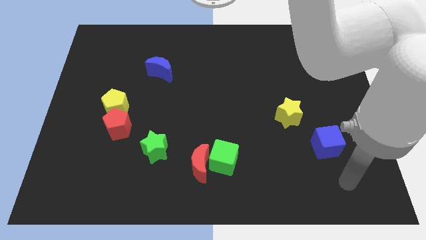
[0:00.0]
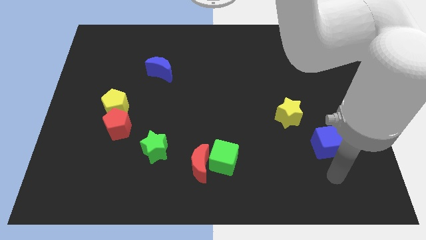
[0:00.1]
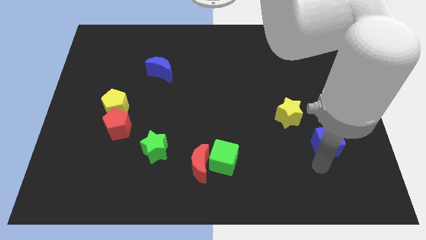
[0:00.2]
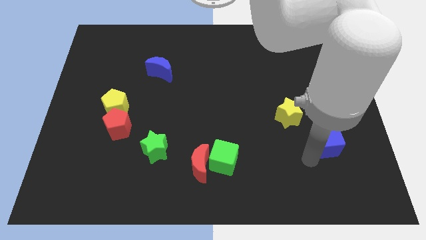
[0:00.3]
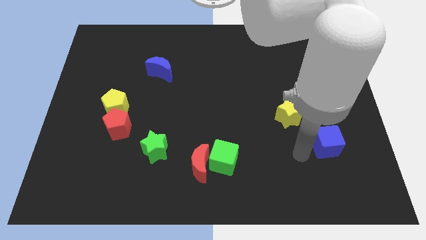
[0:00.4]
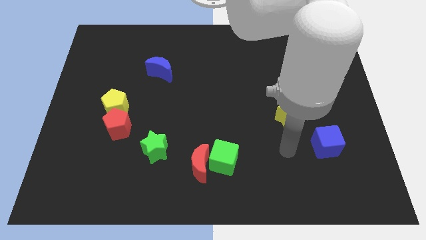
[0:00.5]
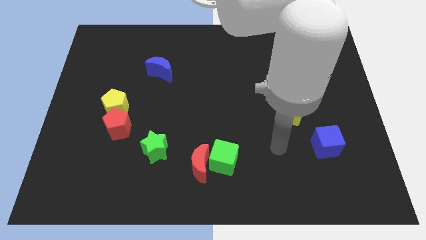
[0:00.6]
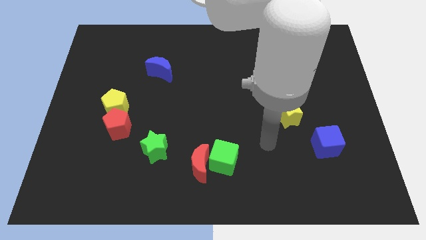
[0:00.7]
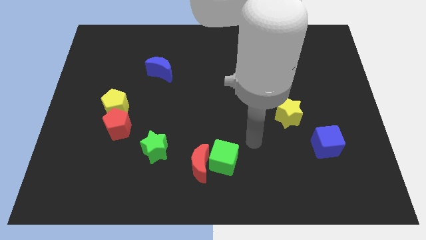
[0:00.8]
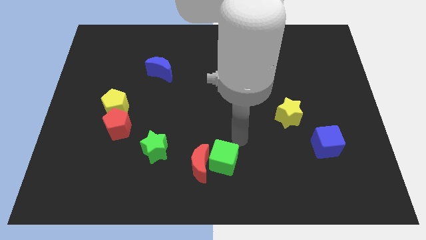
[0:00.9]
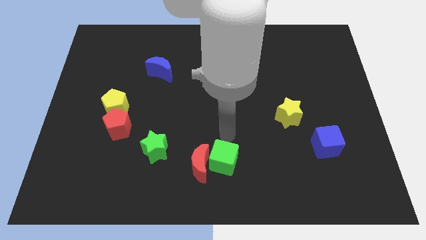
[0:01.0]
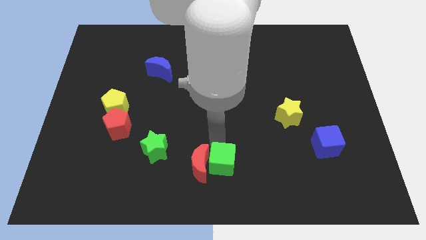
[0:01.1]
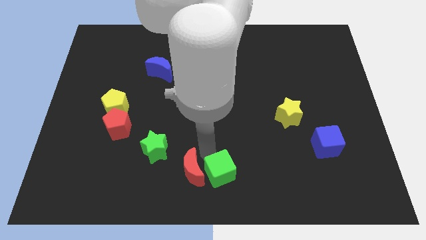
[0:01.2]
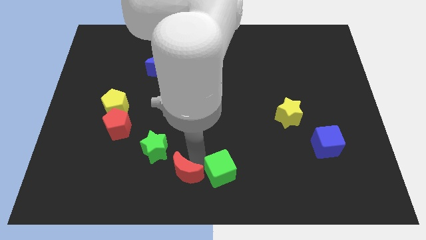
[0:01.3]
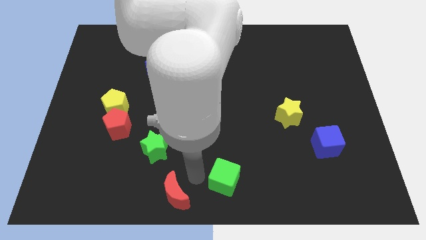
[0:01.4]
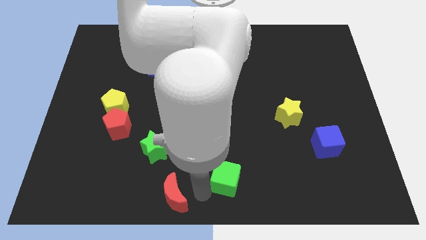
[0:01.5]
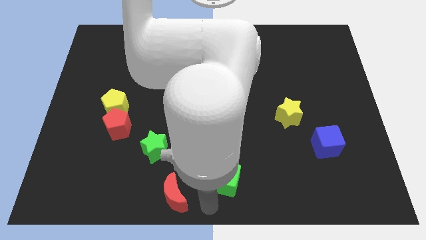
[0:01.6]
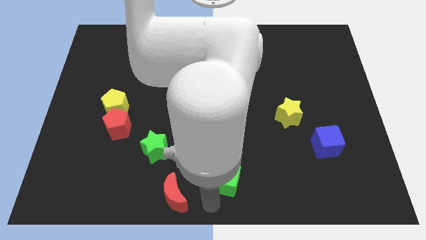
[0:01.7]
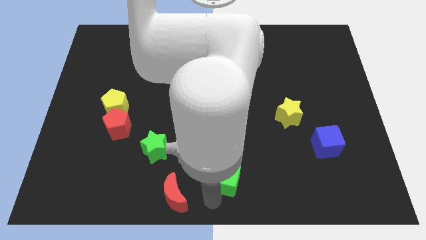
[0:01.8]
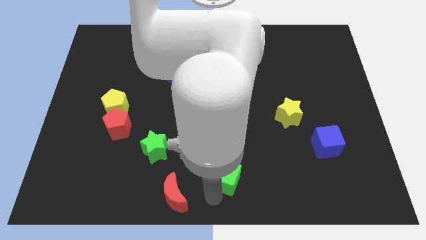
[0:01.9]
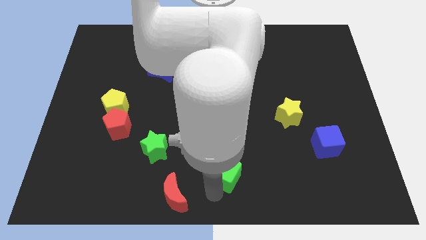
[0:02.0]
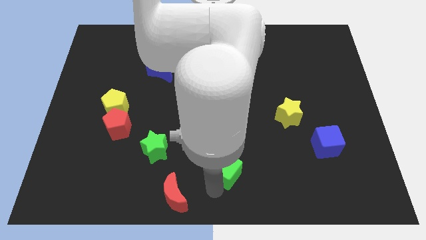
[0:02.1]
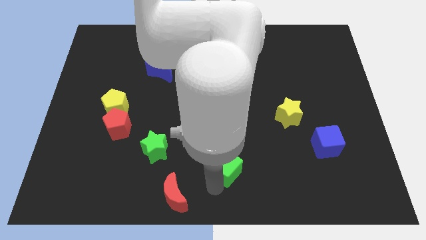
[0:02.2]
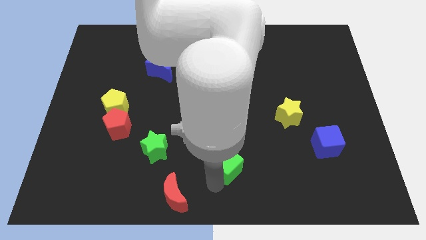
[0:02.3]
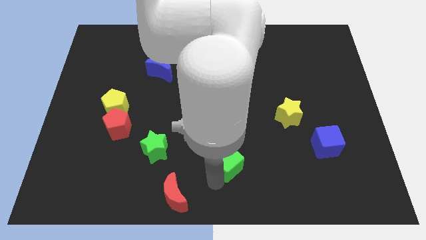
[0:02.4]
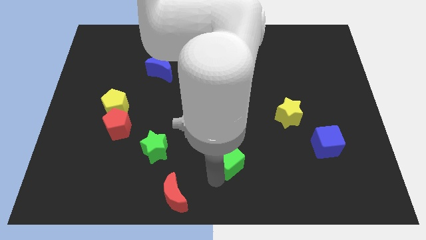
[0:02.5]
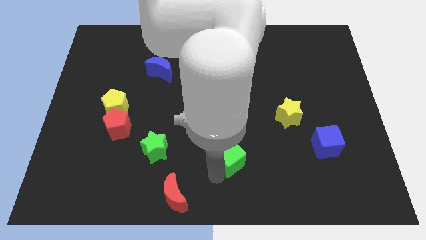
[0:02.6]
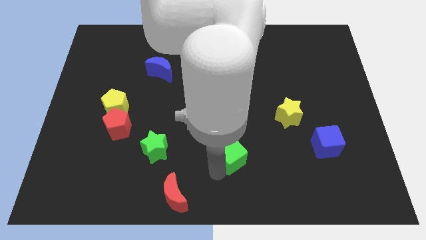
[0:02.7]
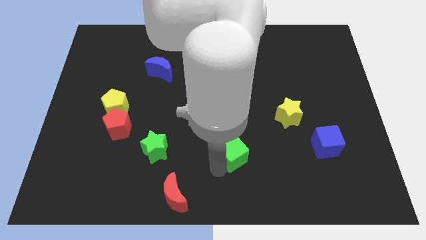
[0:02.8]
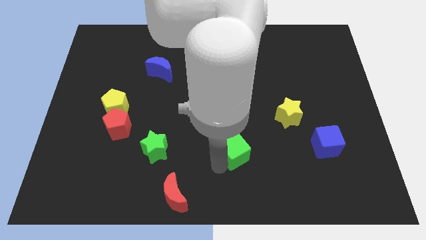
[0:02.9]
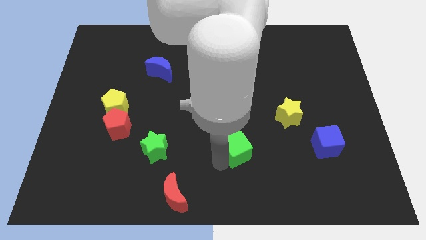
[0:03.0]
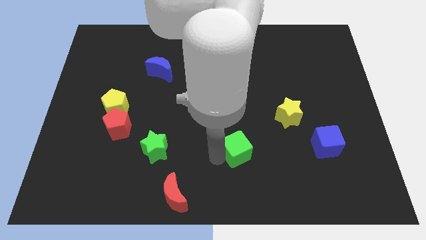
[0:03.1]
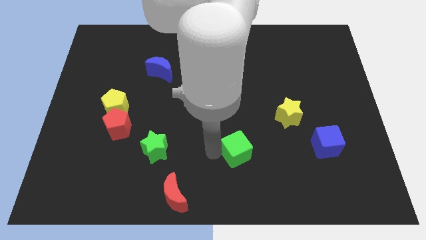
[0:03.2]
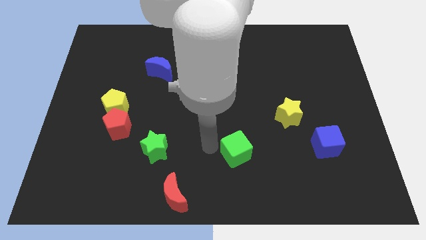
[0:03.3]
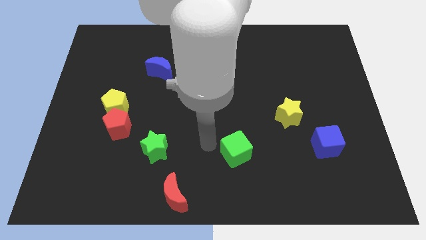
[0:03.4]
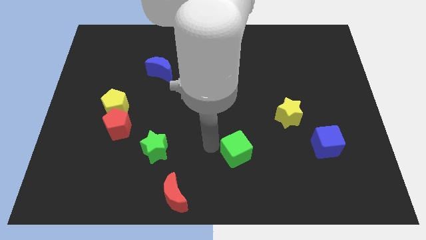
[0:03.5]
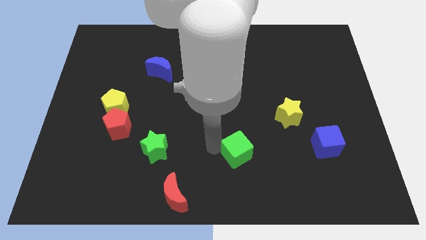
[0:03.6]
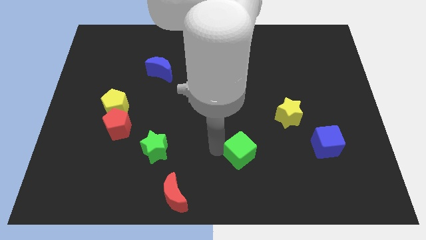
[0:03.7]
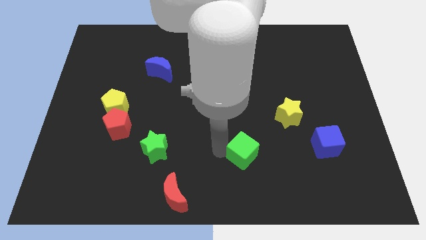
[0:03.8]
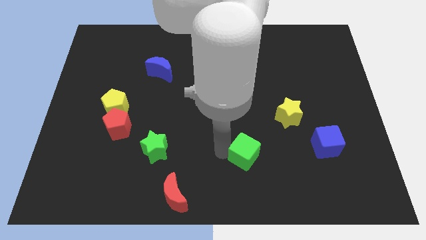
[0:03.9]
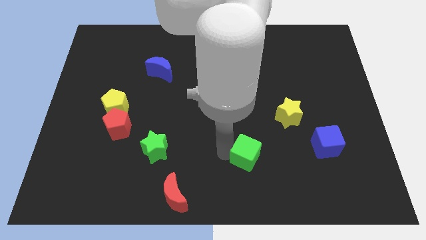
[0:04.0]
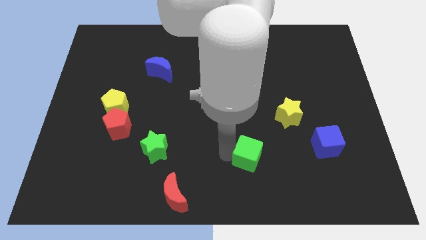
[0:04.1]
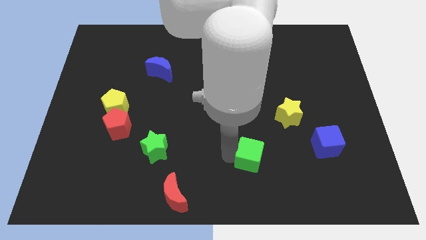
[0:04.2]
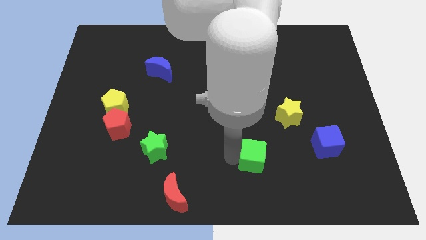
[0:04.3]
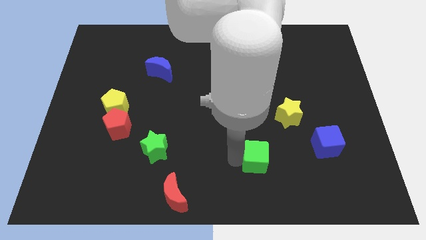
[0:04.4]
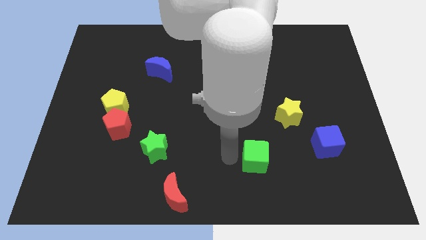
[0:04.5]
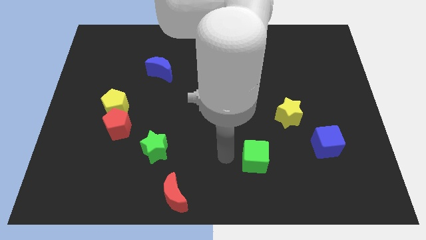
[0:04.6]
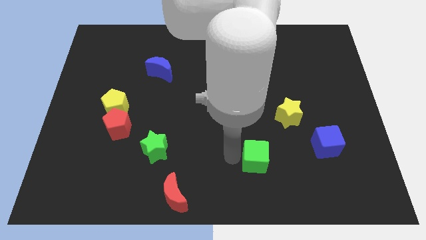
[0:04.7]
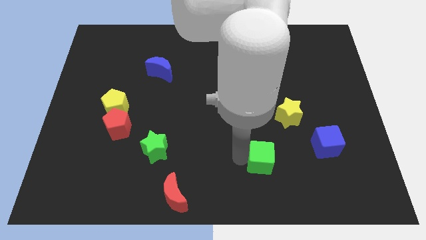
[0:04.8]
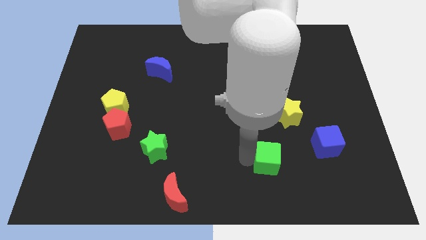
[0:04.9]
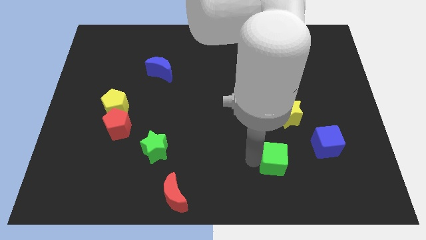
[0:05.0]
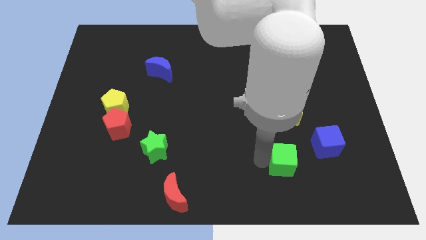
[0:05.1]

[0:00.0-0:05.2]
move the green cube diagonally down and to the left of the blue cube

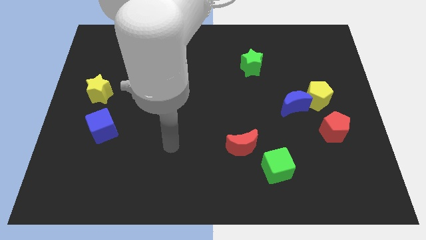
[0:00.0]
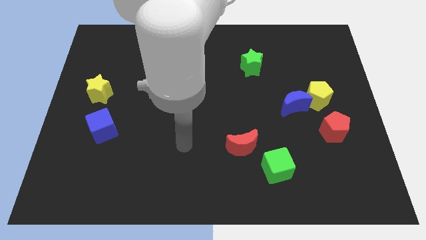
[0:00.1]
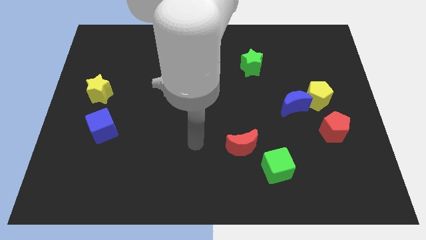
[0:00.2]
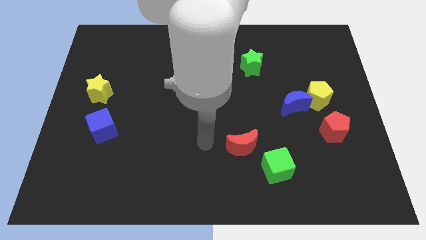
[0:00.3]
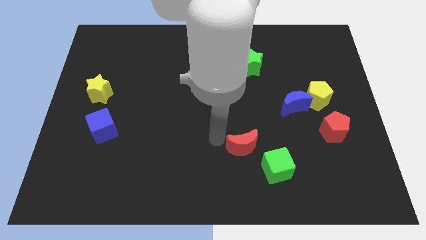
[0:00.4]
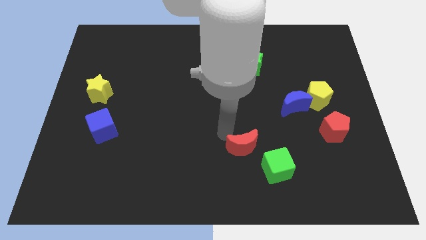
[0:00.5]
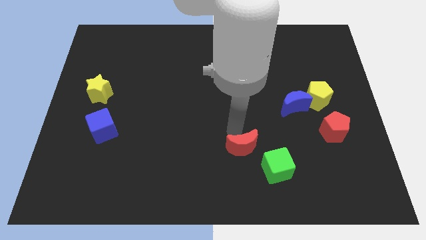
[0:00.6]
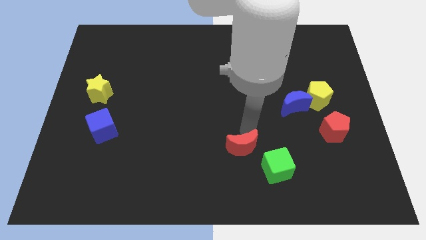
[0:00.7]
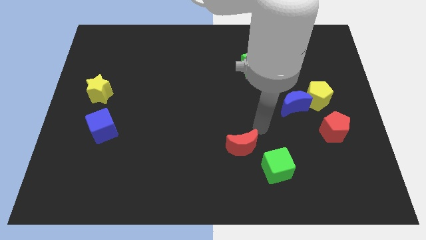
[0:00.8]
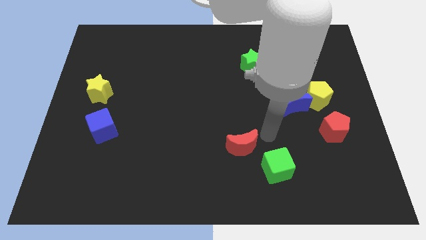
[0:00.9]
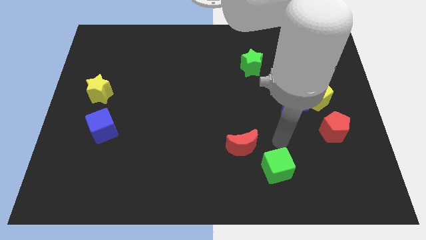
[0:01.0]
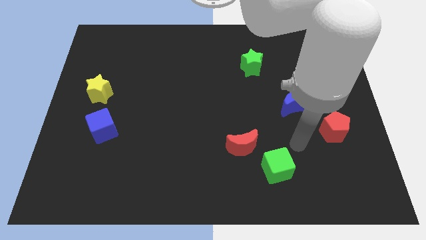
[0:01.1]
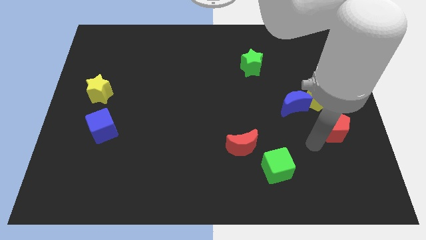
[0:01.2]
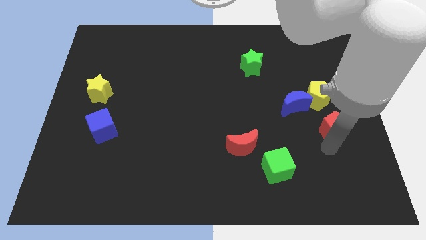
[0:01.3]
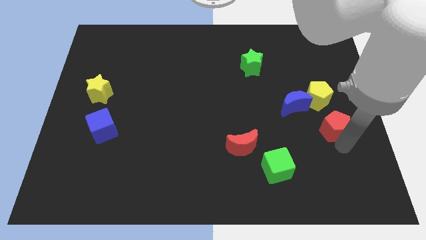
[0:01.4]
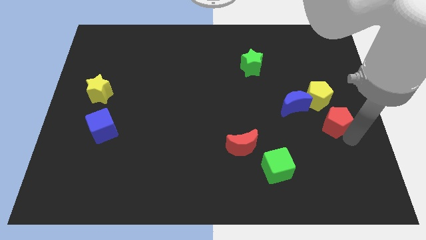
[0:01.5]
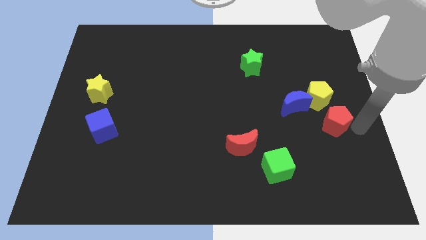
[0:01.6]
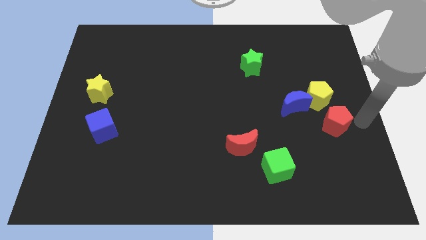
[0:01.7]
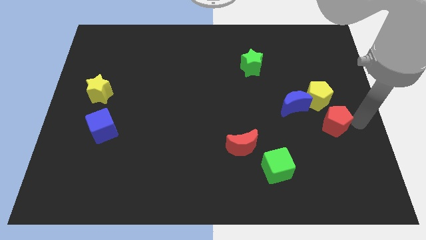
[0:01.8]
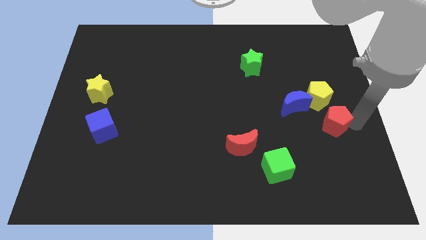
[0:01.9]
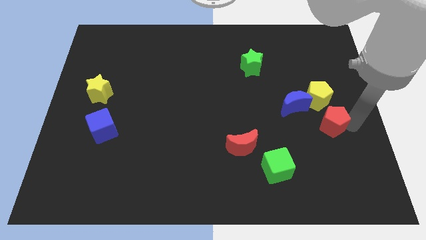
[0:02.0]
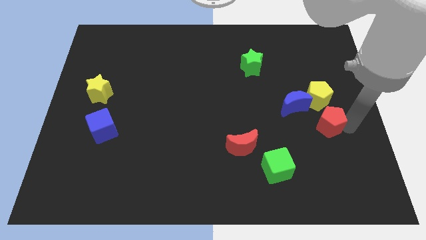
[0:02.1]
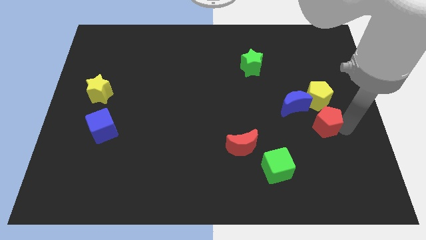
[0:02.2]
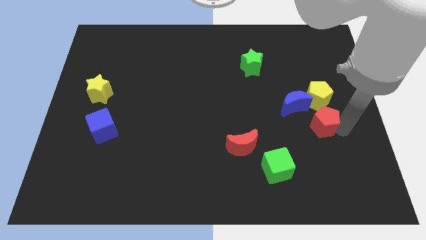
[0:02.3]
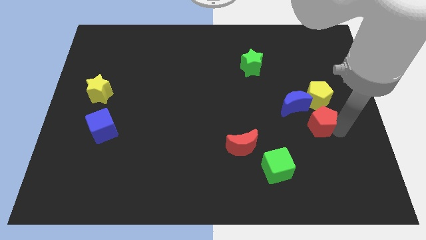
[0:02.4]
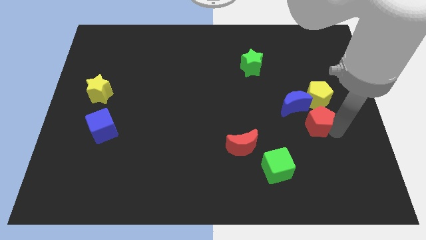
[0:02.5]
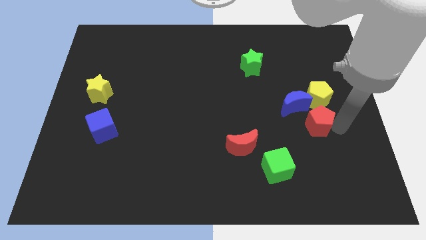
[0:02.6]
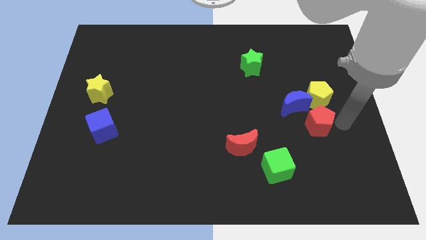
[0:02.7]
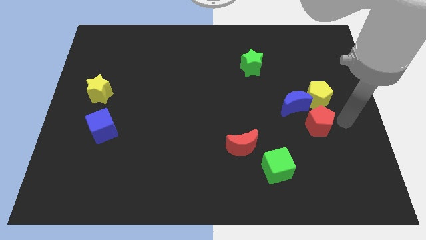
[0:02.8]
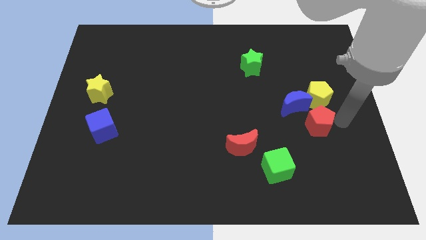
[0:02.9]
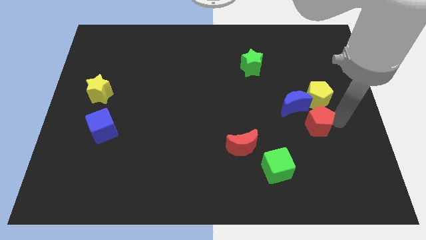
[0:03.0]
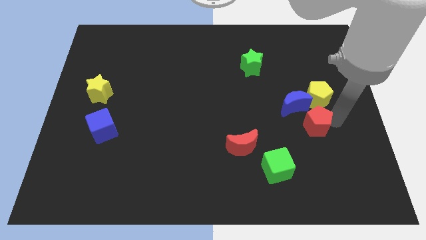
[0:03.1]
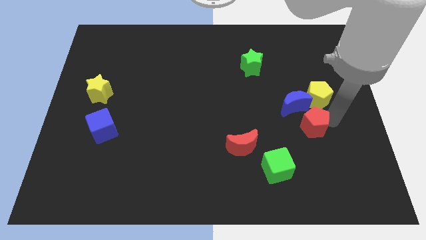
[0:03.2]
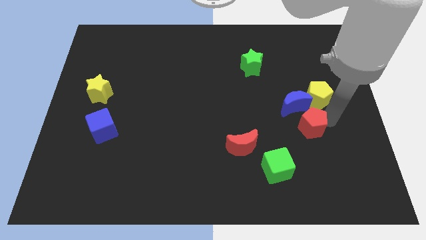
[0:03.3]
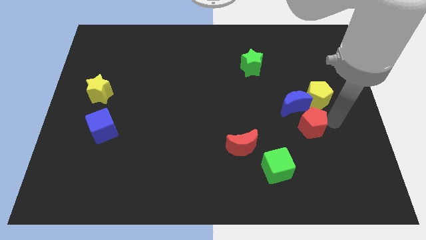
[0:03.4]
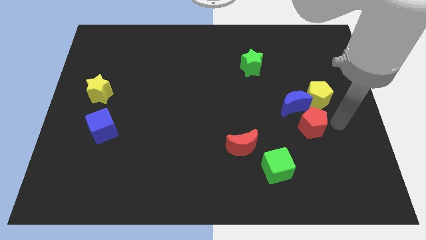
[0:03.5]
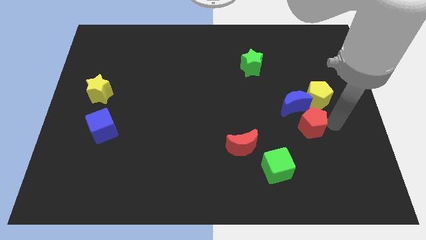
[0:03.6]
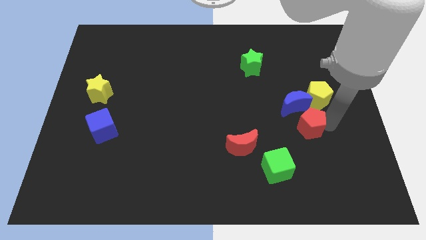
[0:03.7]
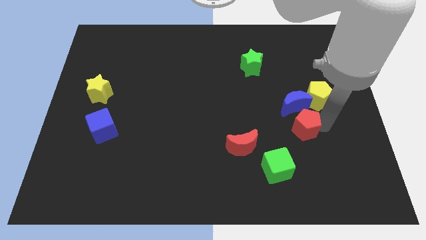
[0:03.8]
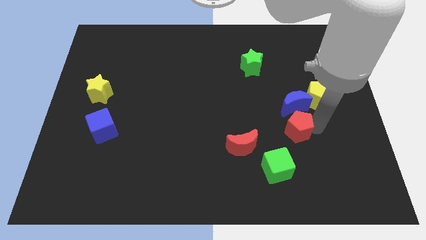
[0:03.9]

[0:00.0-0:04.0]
move the red pentagon to the bottom left side of the blue moon
